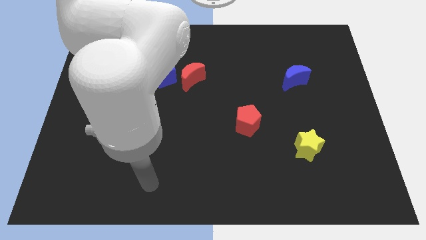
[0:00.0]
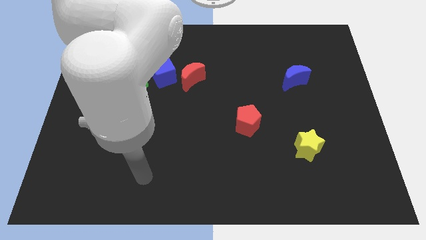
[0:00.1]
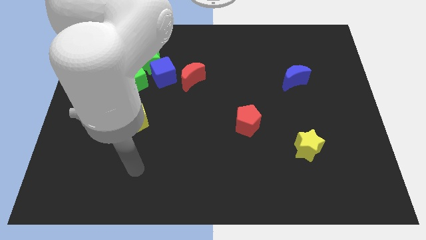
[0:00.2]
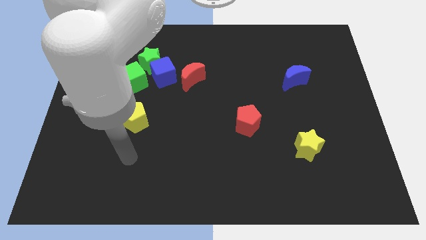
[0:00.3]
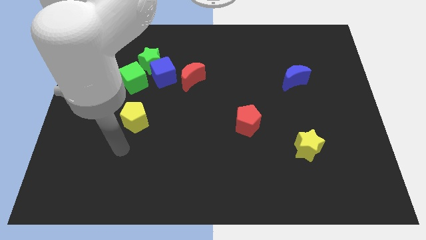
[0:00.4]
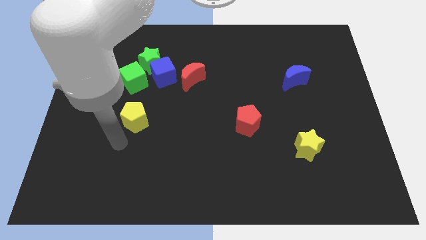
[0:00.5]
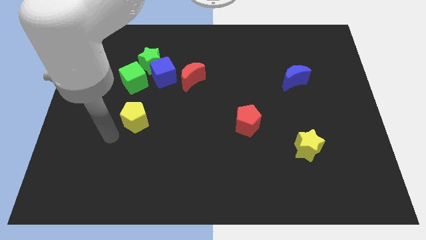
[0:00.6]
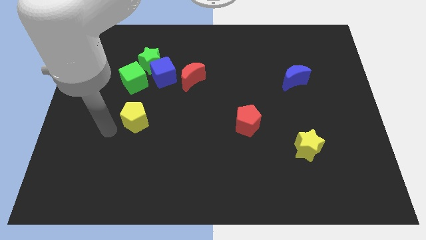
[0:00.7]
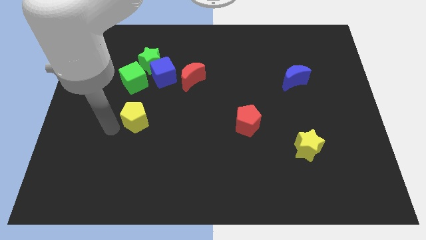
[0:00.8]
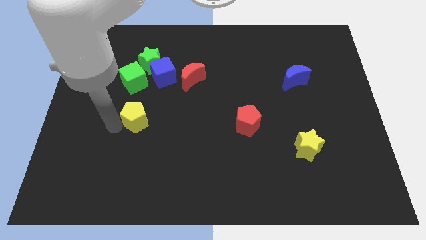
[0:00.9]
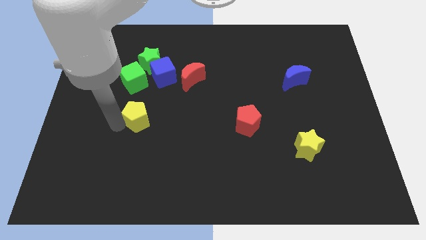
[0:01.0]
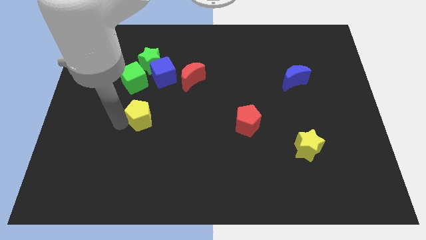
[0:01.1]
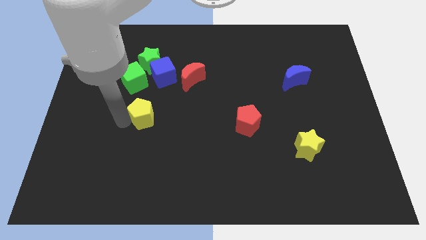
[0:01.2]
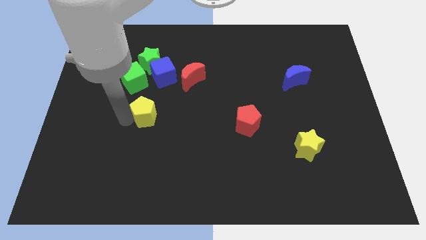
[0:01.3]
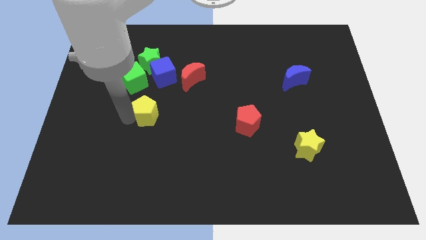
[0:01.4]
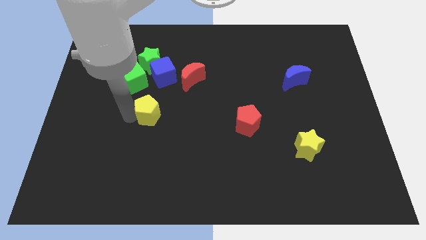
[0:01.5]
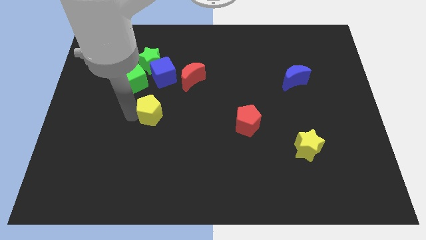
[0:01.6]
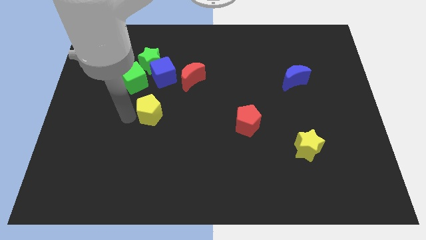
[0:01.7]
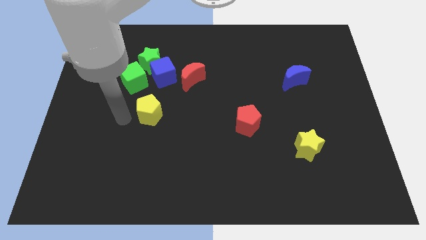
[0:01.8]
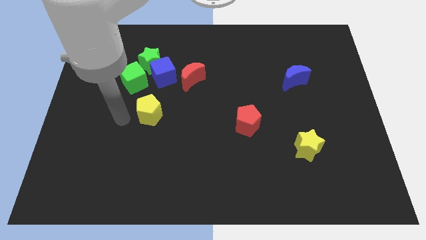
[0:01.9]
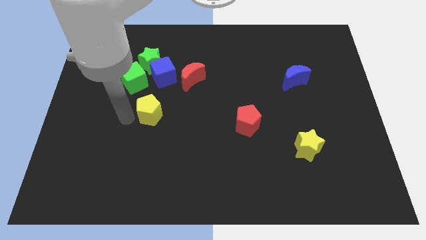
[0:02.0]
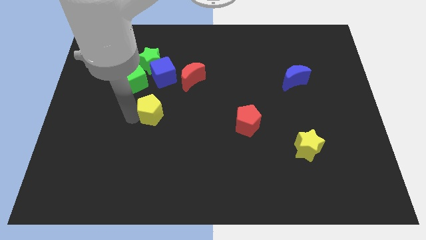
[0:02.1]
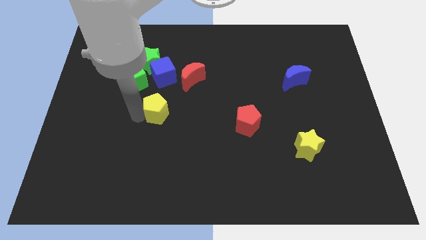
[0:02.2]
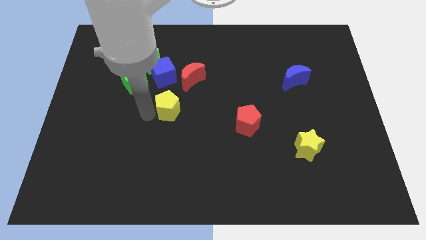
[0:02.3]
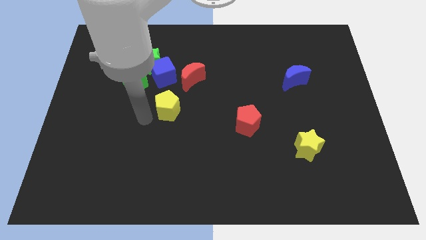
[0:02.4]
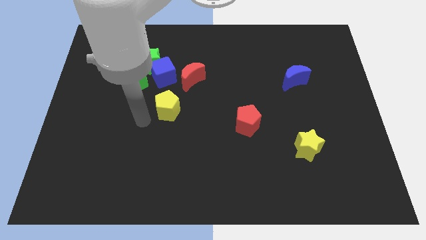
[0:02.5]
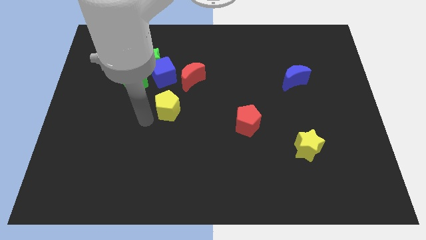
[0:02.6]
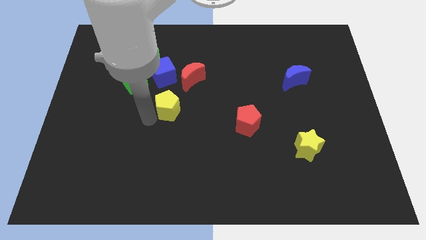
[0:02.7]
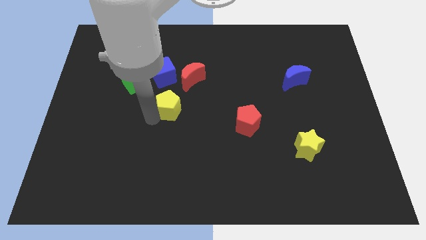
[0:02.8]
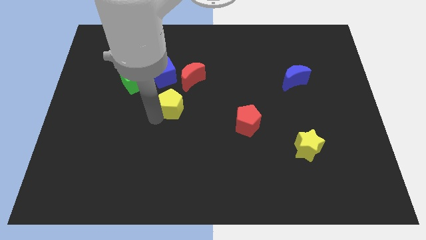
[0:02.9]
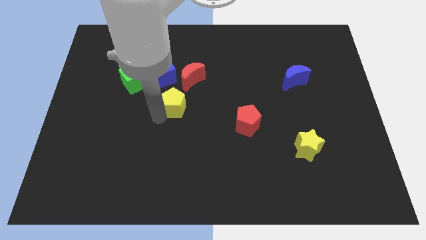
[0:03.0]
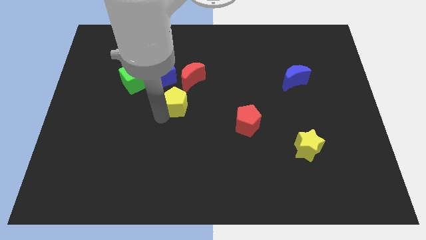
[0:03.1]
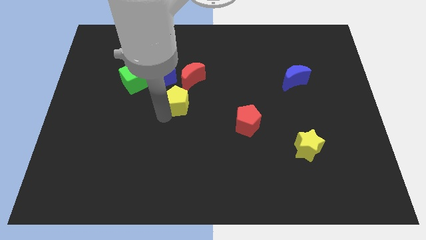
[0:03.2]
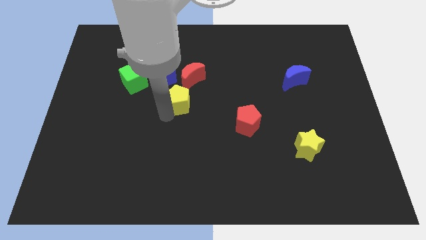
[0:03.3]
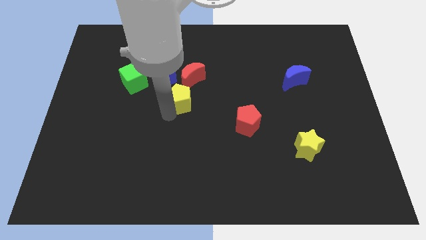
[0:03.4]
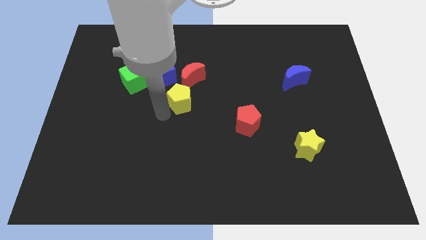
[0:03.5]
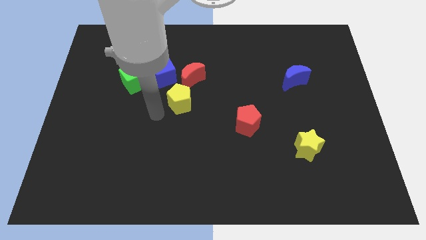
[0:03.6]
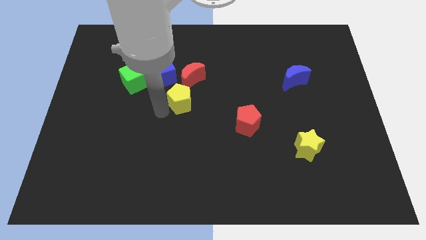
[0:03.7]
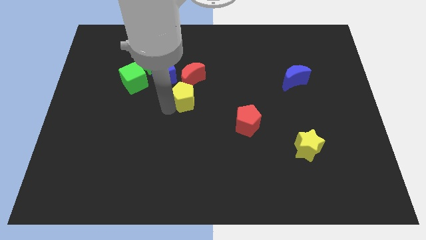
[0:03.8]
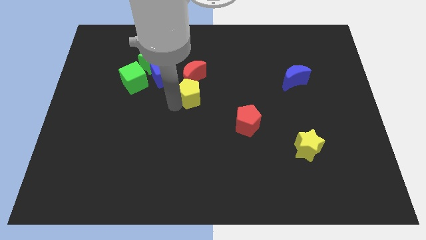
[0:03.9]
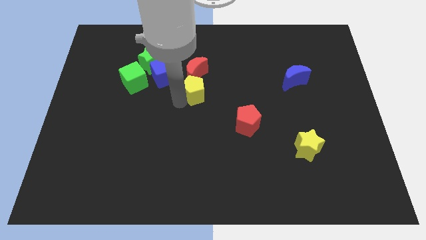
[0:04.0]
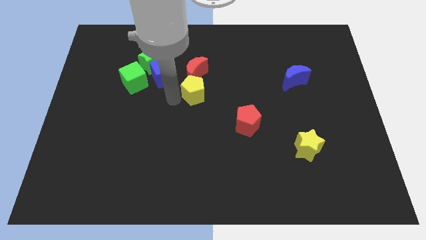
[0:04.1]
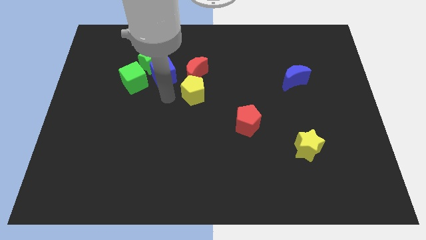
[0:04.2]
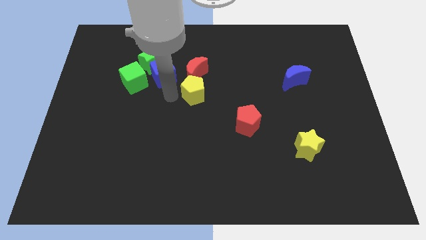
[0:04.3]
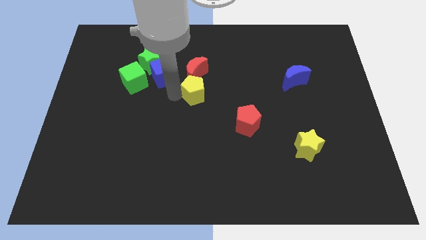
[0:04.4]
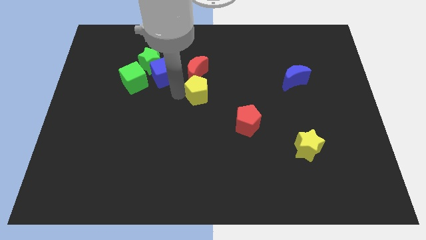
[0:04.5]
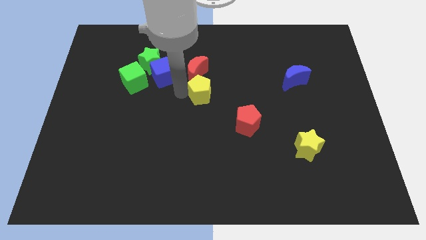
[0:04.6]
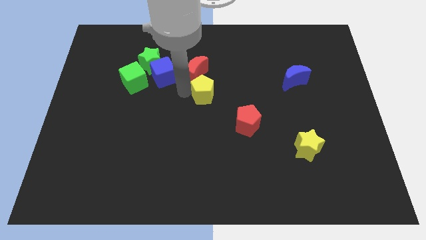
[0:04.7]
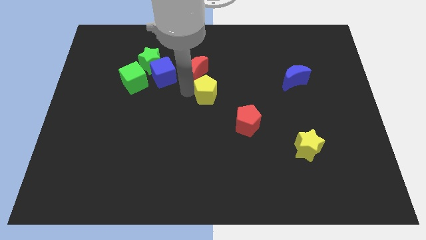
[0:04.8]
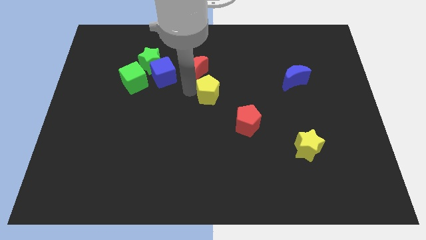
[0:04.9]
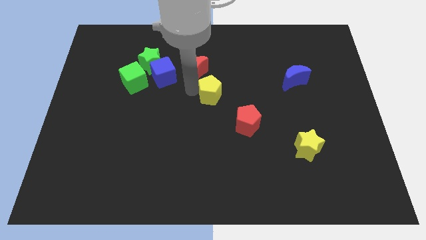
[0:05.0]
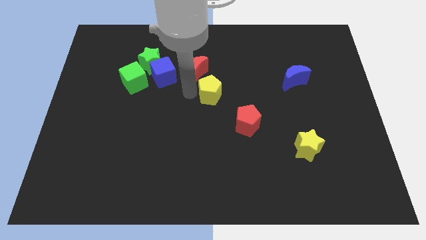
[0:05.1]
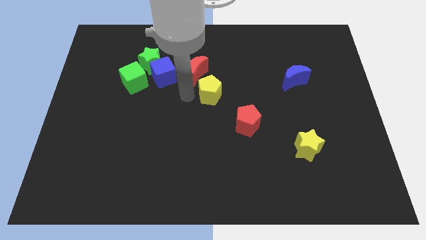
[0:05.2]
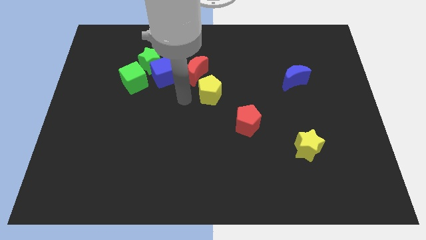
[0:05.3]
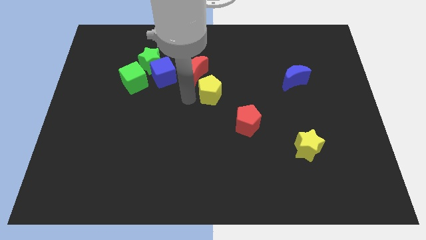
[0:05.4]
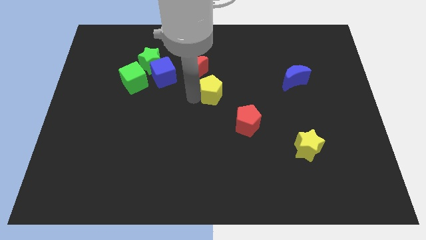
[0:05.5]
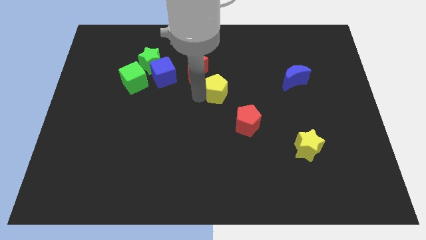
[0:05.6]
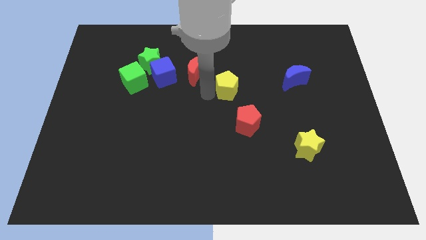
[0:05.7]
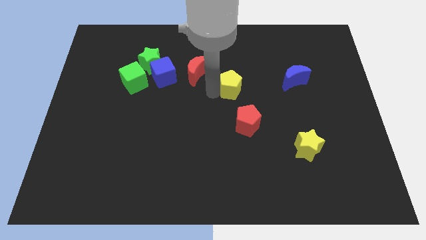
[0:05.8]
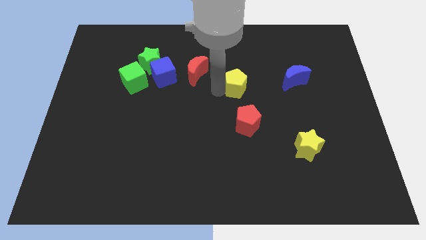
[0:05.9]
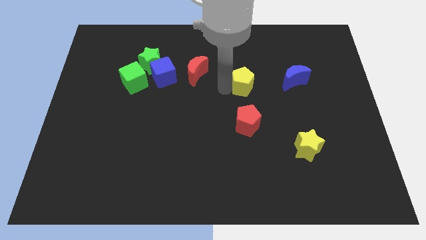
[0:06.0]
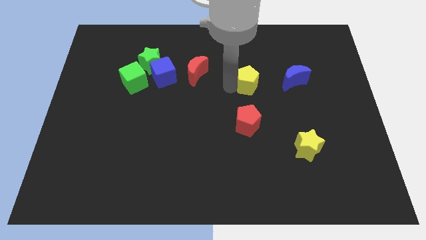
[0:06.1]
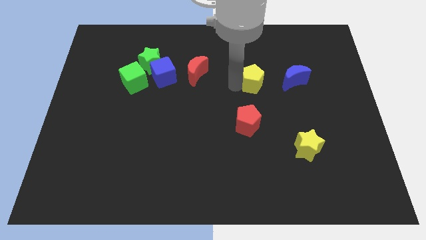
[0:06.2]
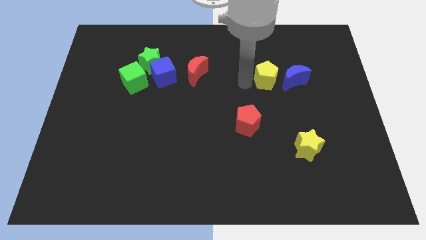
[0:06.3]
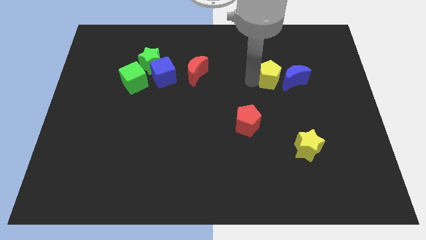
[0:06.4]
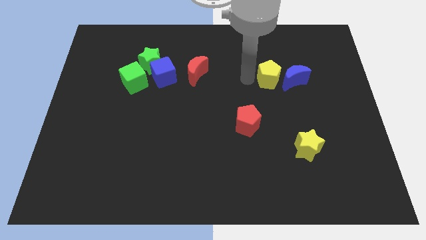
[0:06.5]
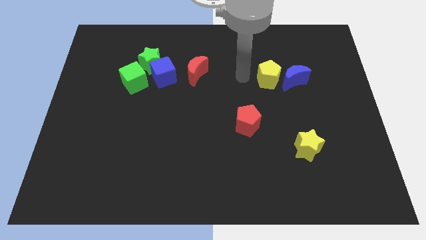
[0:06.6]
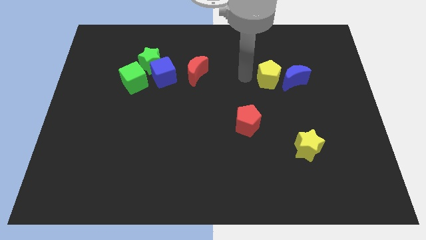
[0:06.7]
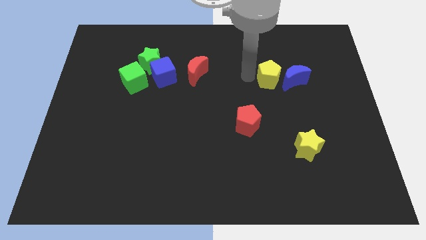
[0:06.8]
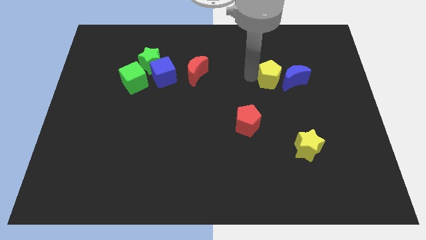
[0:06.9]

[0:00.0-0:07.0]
put the yellow pentagon next to the blue moon
